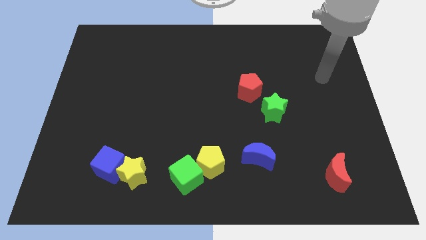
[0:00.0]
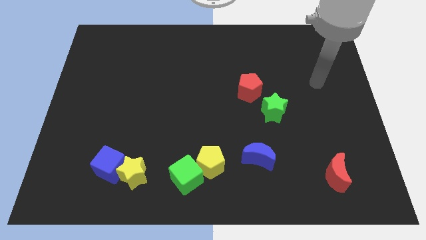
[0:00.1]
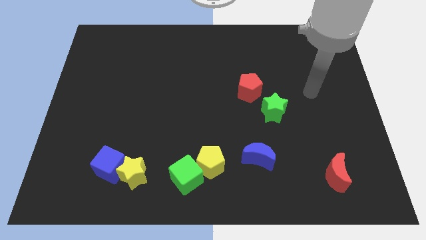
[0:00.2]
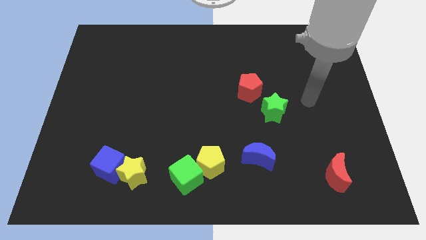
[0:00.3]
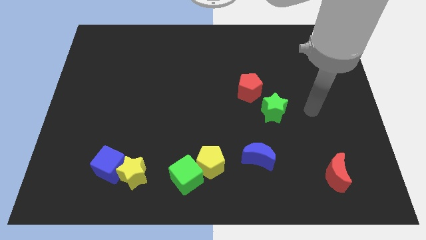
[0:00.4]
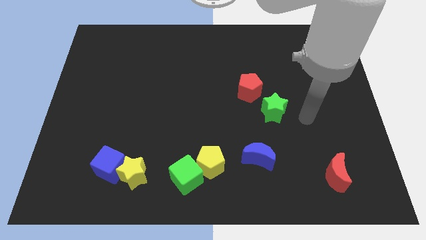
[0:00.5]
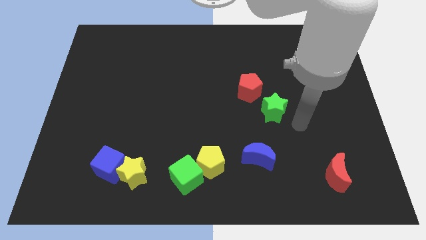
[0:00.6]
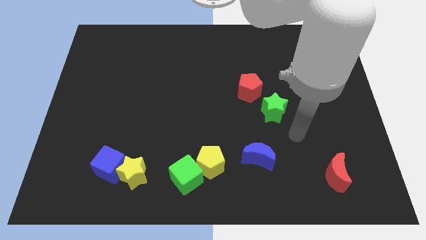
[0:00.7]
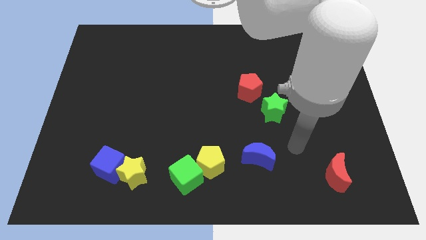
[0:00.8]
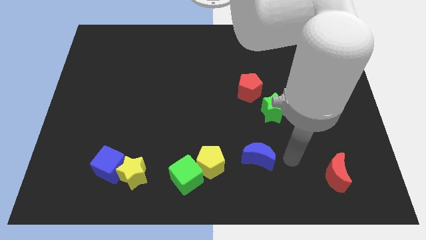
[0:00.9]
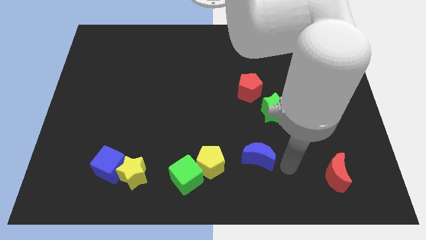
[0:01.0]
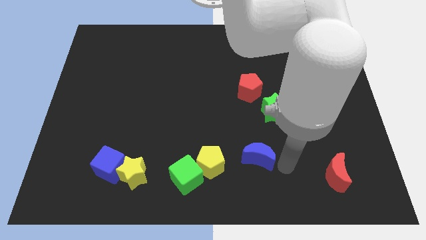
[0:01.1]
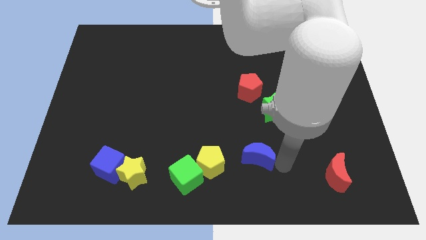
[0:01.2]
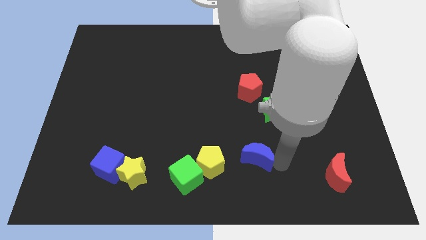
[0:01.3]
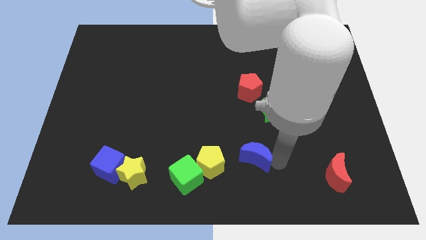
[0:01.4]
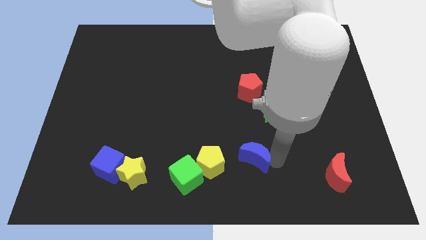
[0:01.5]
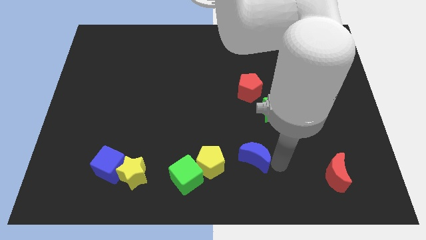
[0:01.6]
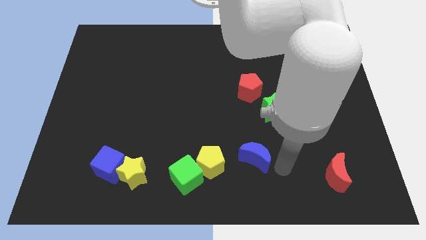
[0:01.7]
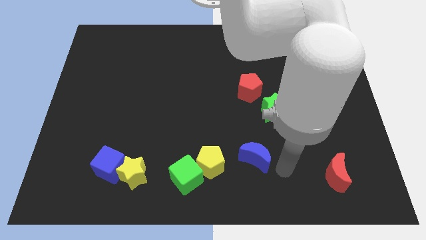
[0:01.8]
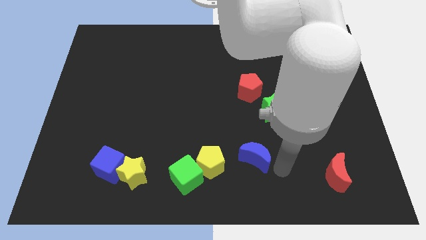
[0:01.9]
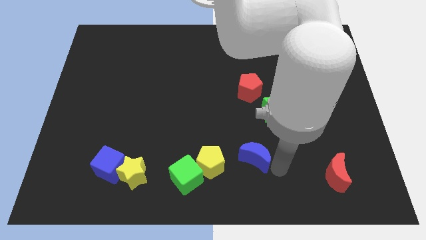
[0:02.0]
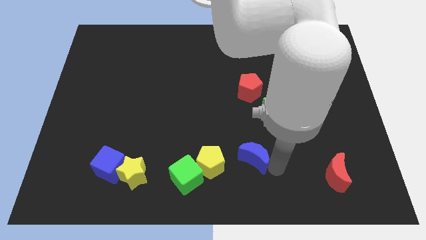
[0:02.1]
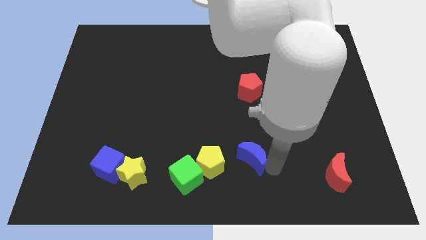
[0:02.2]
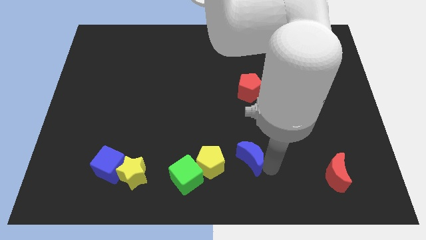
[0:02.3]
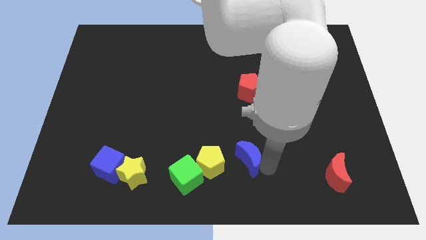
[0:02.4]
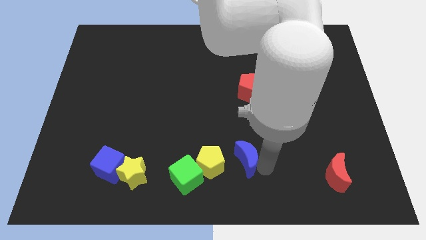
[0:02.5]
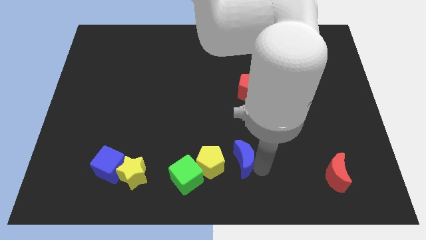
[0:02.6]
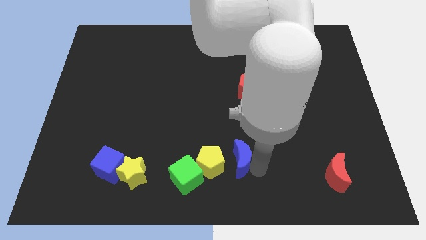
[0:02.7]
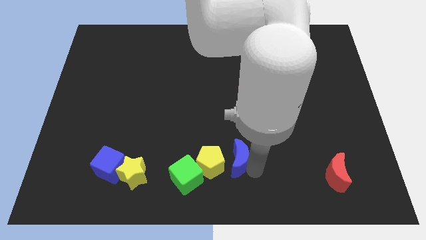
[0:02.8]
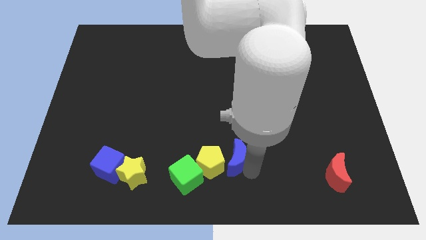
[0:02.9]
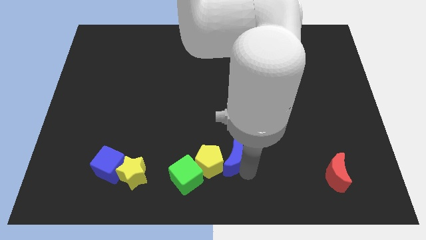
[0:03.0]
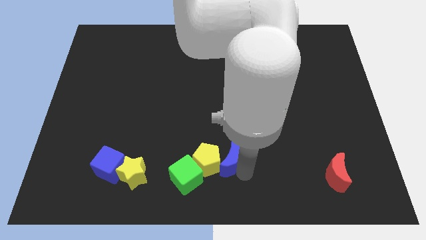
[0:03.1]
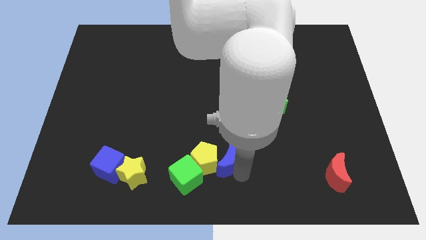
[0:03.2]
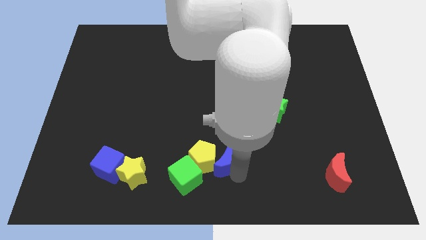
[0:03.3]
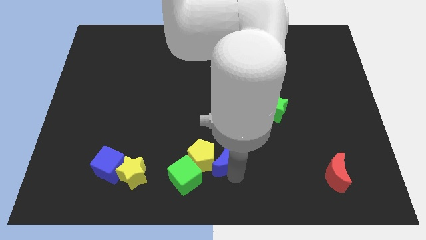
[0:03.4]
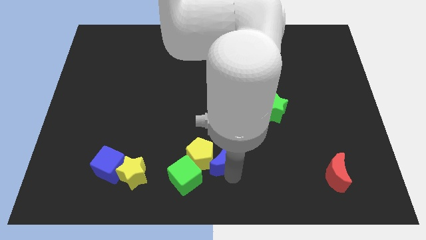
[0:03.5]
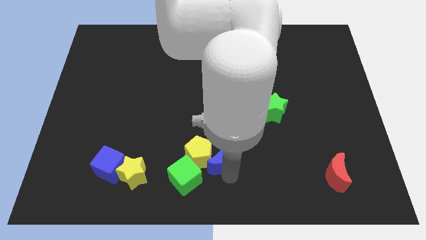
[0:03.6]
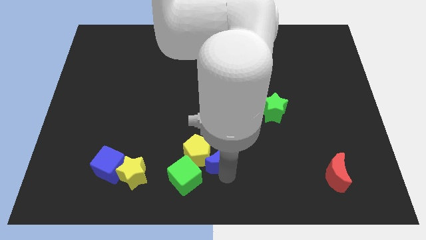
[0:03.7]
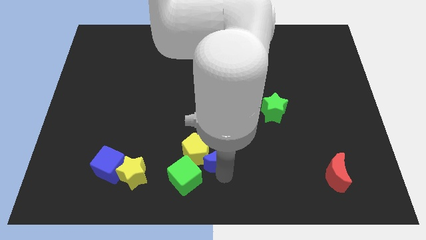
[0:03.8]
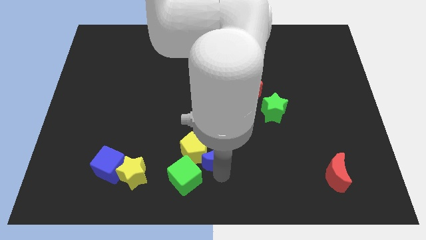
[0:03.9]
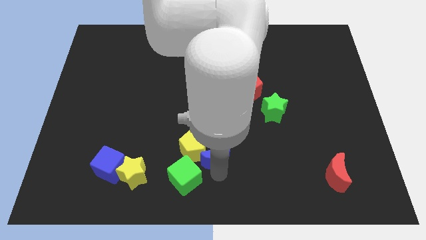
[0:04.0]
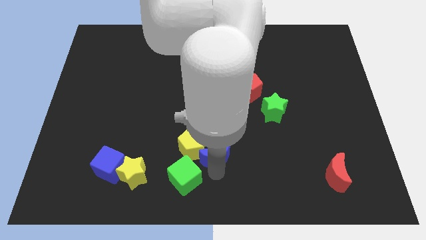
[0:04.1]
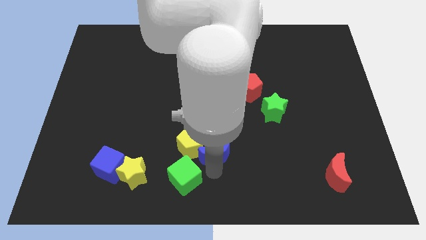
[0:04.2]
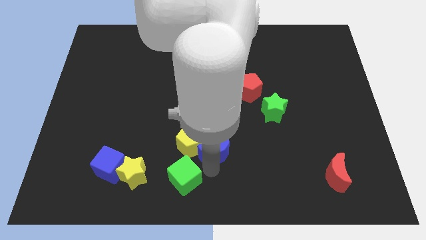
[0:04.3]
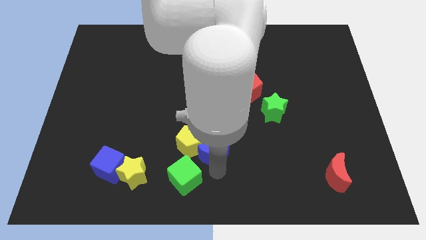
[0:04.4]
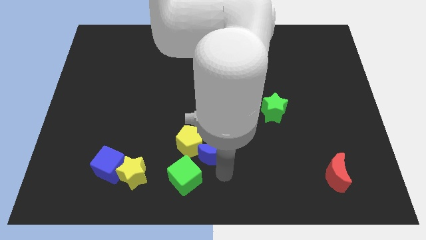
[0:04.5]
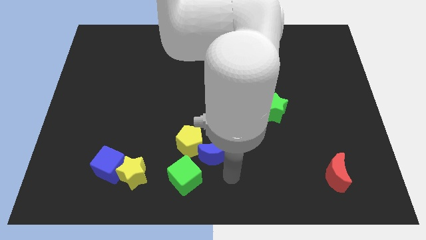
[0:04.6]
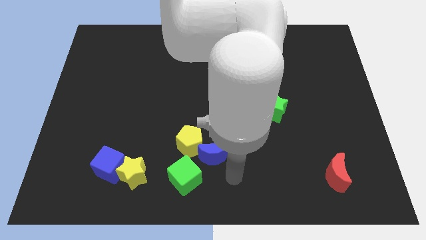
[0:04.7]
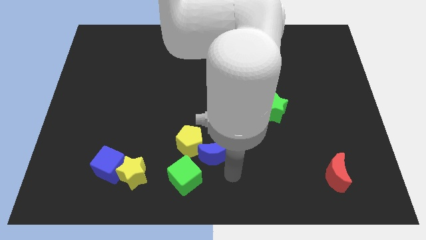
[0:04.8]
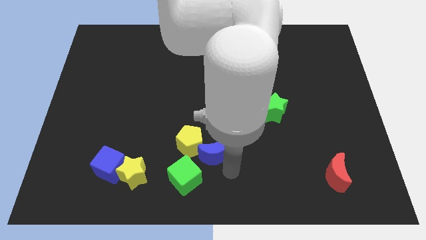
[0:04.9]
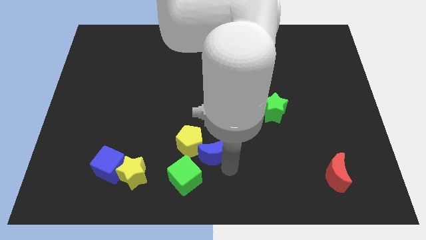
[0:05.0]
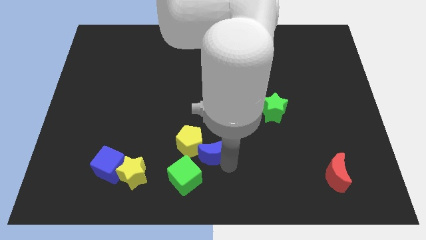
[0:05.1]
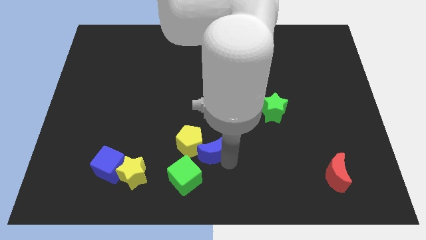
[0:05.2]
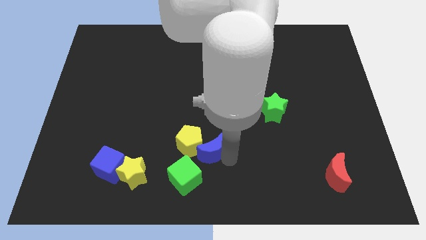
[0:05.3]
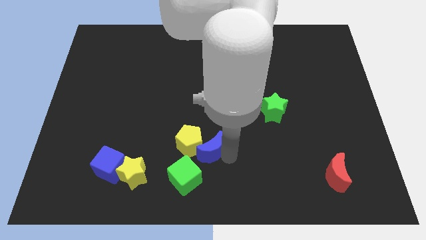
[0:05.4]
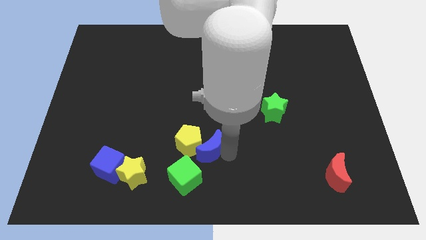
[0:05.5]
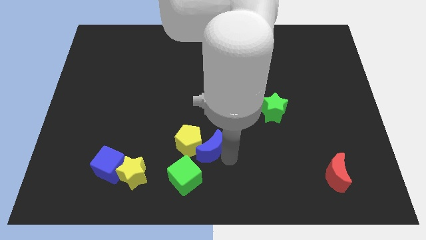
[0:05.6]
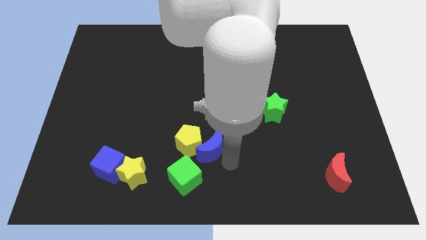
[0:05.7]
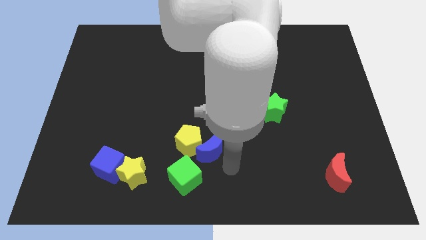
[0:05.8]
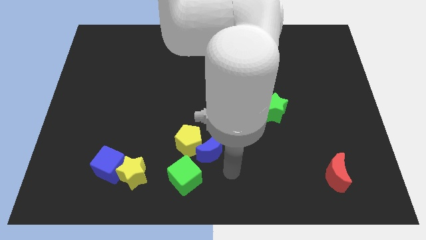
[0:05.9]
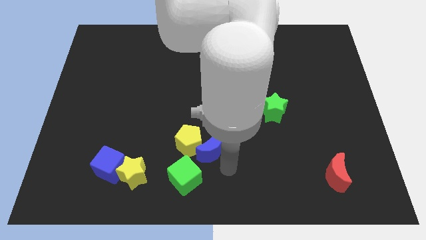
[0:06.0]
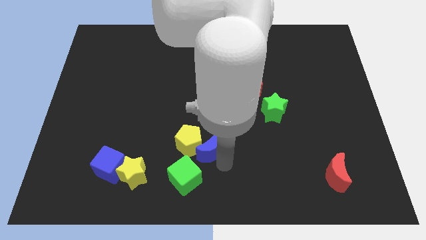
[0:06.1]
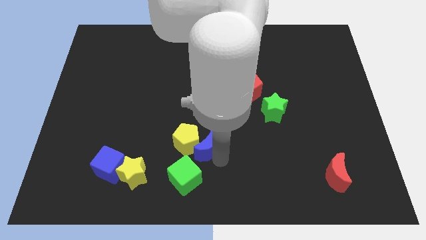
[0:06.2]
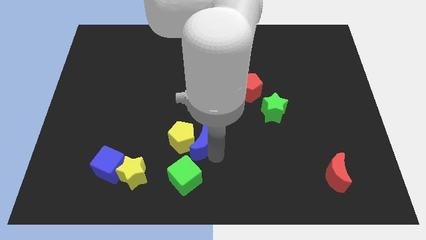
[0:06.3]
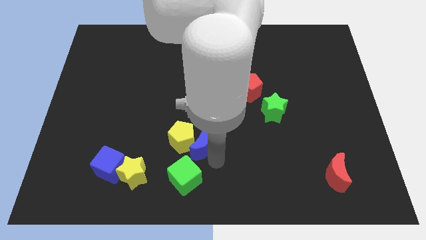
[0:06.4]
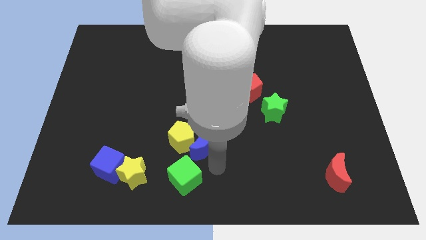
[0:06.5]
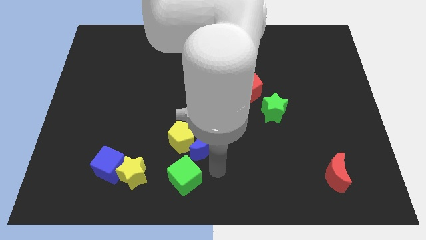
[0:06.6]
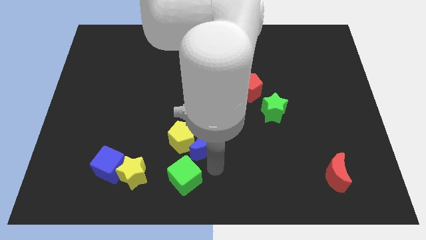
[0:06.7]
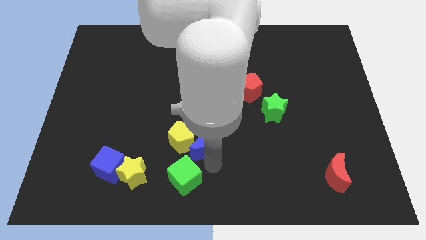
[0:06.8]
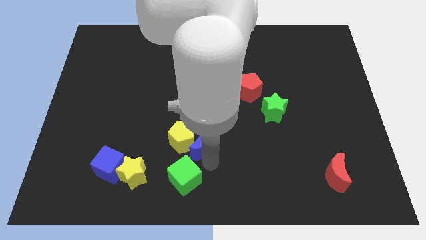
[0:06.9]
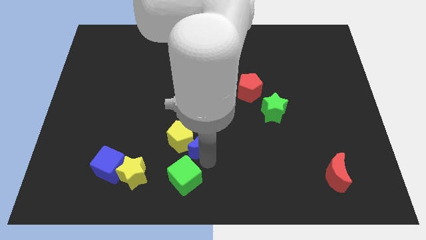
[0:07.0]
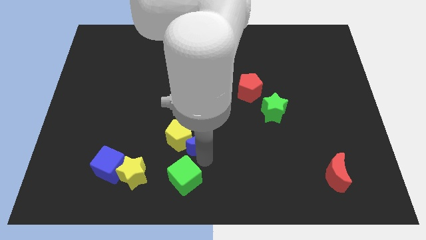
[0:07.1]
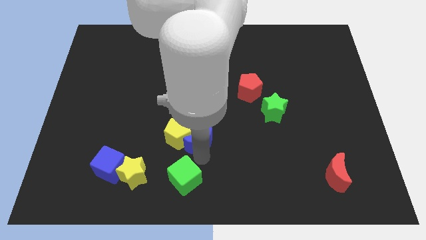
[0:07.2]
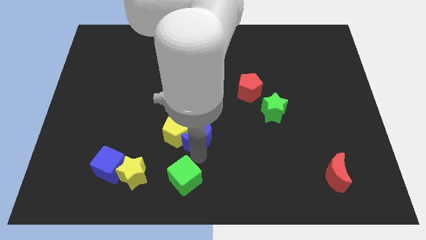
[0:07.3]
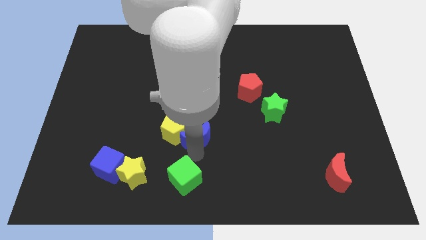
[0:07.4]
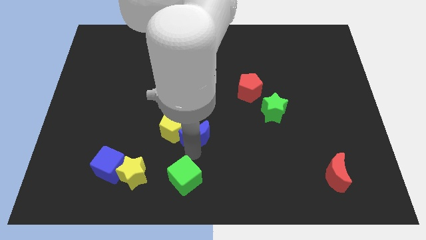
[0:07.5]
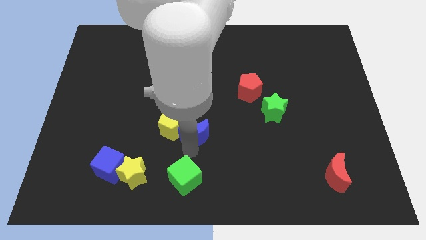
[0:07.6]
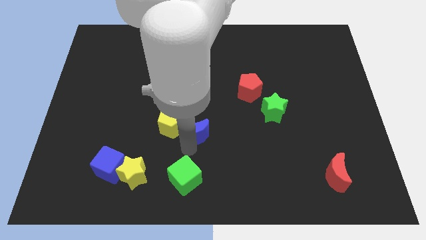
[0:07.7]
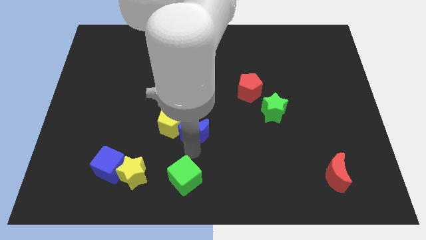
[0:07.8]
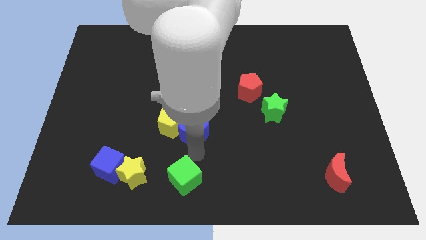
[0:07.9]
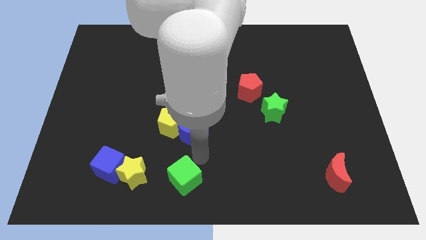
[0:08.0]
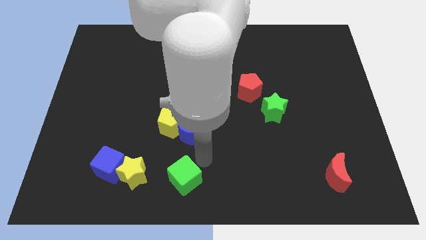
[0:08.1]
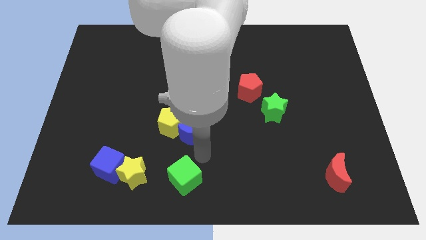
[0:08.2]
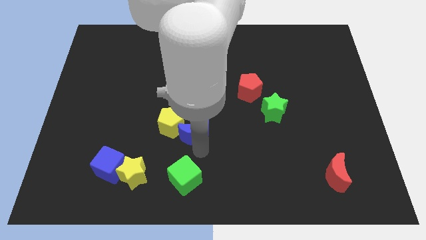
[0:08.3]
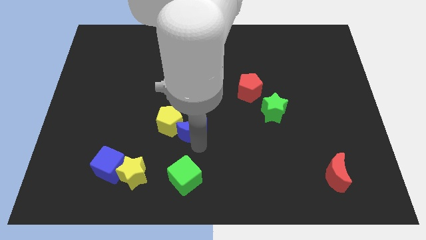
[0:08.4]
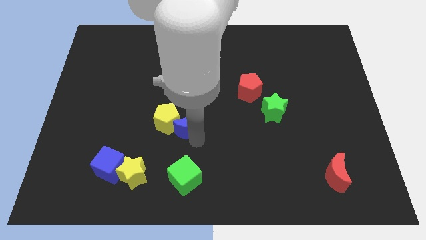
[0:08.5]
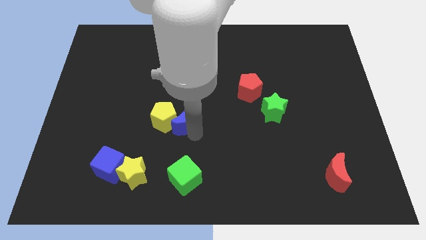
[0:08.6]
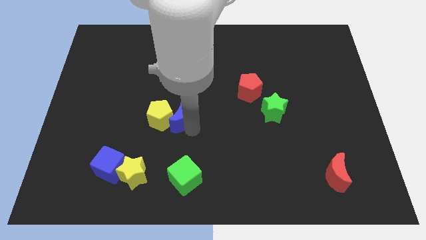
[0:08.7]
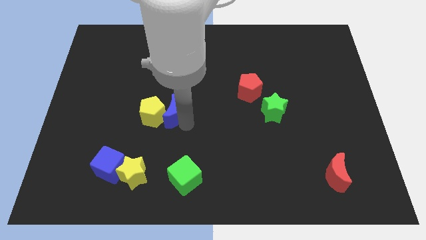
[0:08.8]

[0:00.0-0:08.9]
move the blue moon up and left
